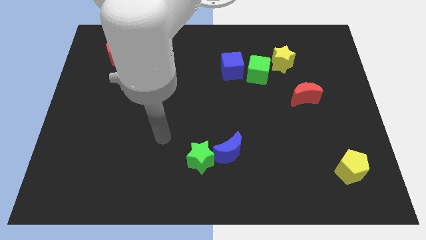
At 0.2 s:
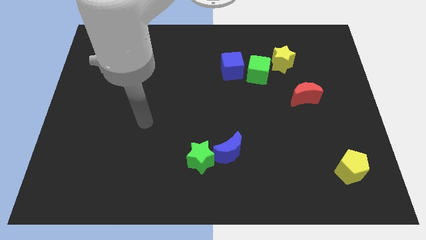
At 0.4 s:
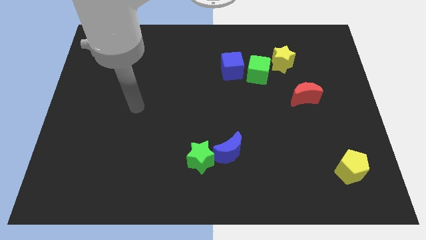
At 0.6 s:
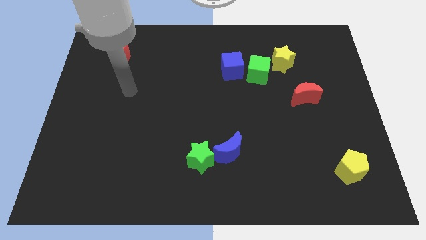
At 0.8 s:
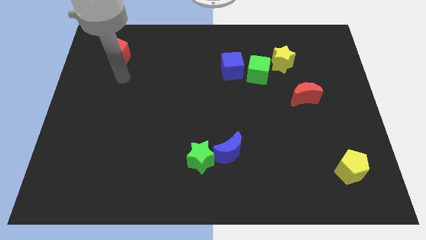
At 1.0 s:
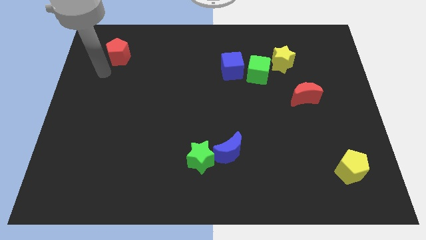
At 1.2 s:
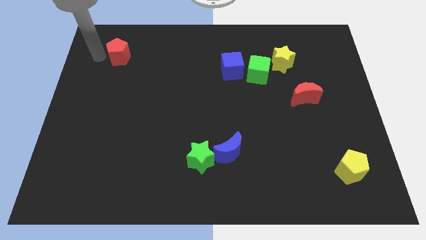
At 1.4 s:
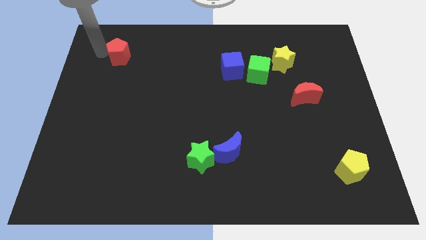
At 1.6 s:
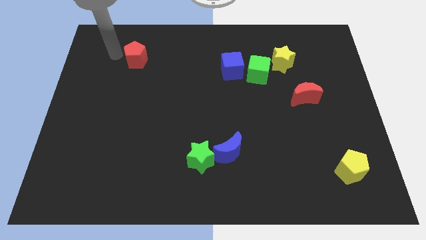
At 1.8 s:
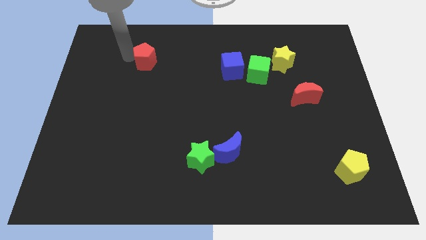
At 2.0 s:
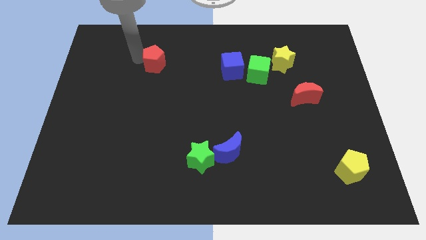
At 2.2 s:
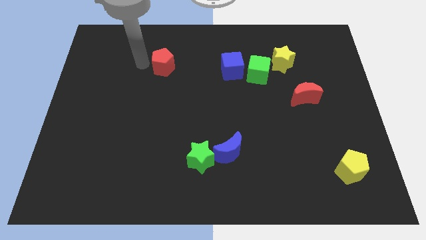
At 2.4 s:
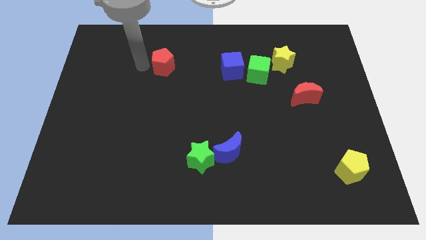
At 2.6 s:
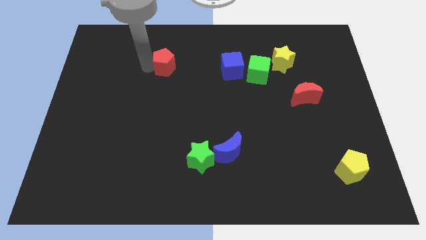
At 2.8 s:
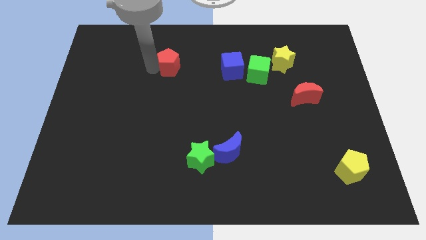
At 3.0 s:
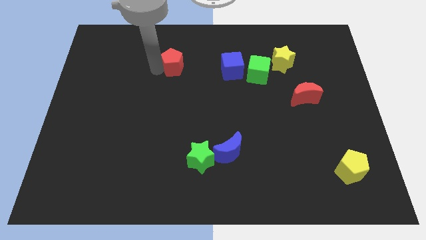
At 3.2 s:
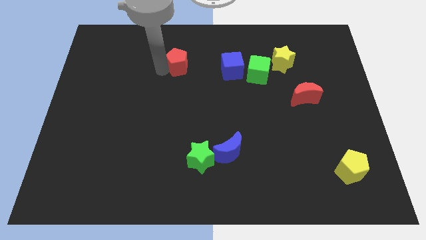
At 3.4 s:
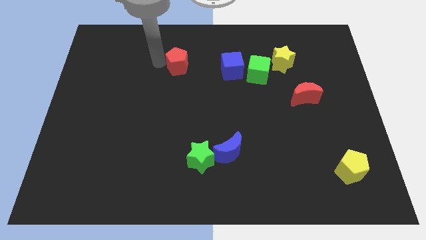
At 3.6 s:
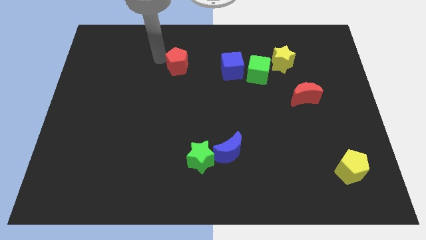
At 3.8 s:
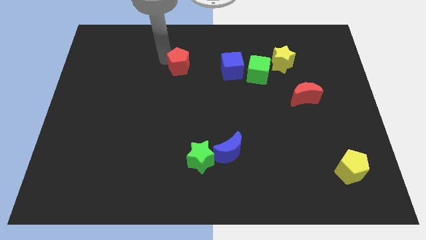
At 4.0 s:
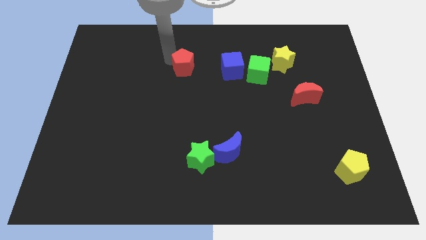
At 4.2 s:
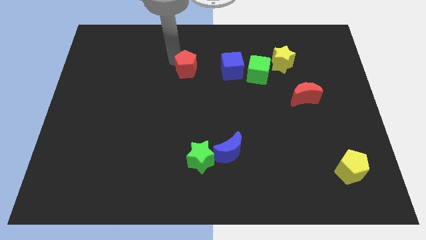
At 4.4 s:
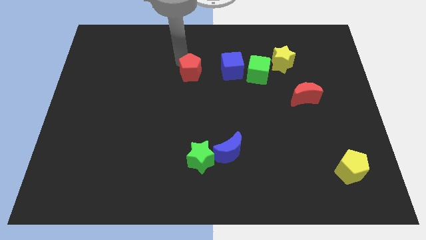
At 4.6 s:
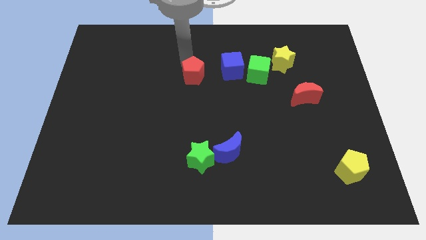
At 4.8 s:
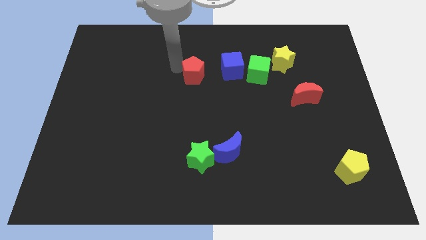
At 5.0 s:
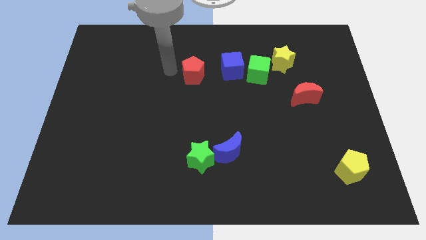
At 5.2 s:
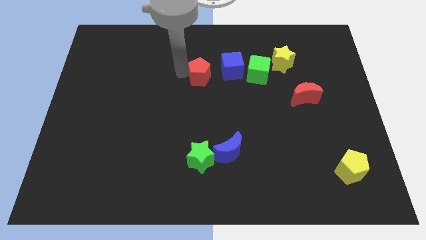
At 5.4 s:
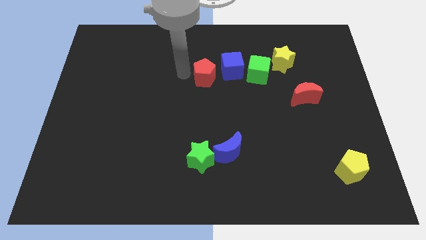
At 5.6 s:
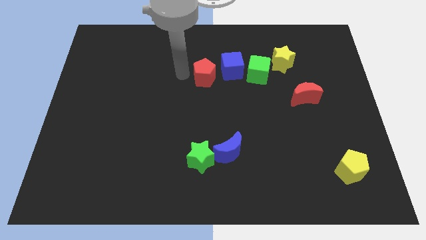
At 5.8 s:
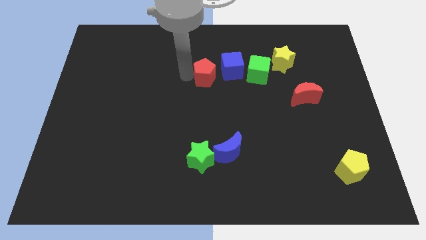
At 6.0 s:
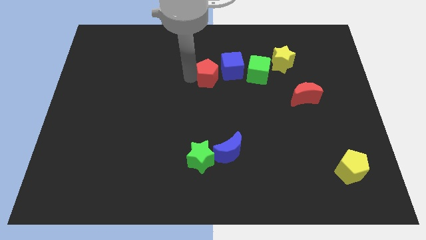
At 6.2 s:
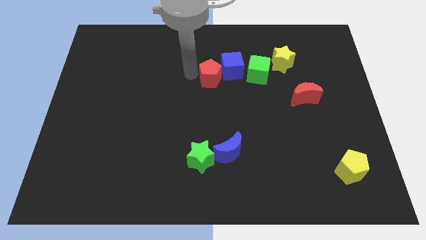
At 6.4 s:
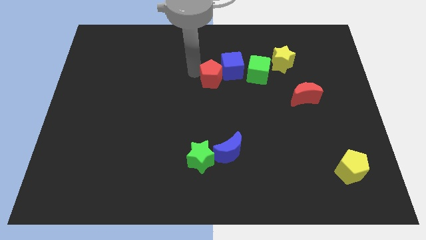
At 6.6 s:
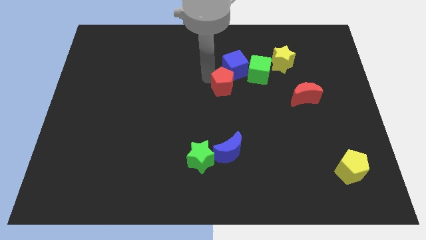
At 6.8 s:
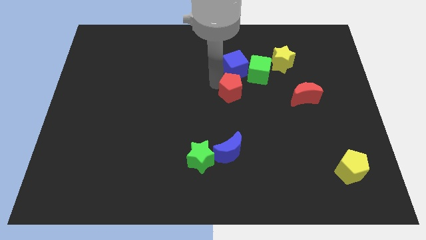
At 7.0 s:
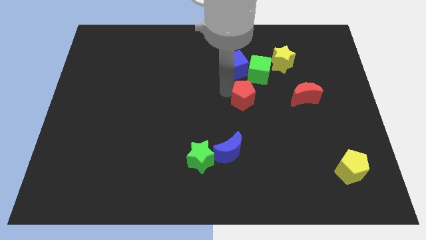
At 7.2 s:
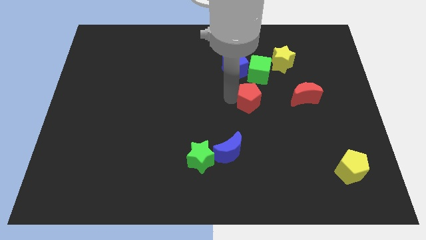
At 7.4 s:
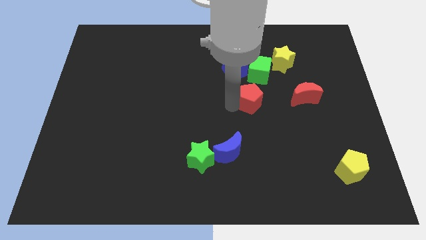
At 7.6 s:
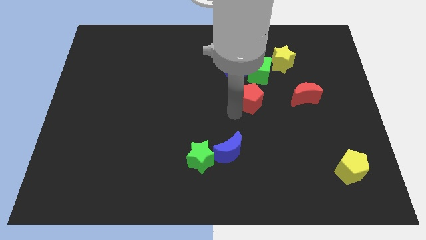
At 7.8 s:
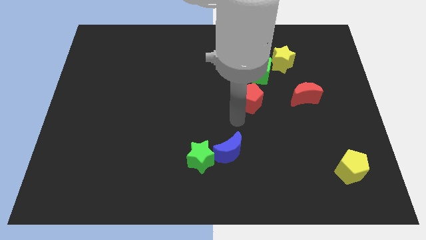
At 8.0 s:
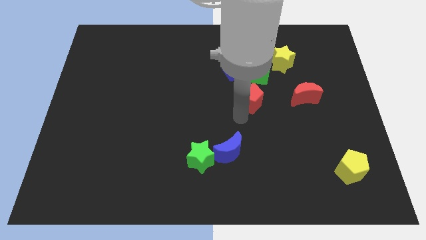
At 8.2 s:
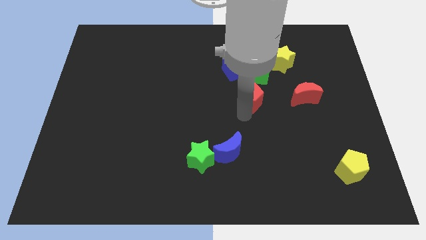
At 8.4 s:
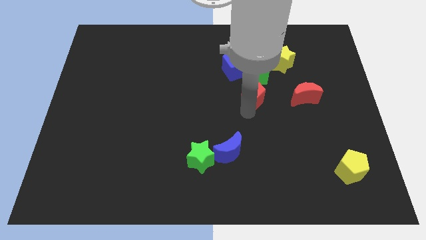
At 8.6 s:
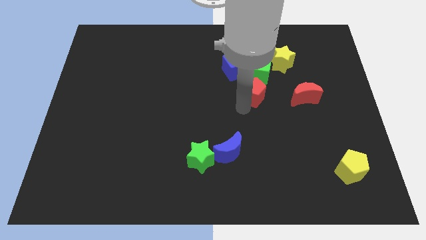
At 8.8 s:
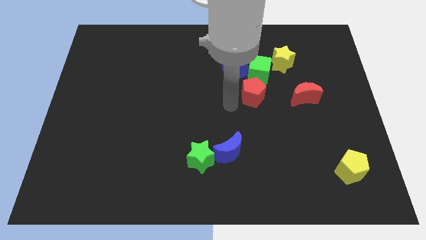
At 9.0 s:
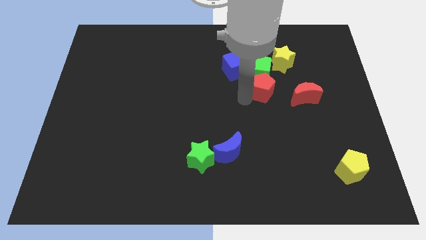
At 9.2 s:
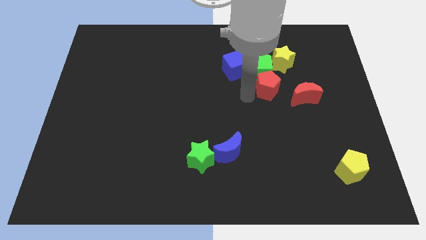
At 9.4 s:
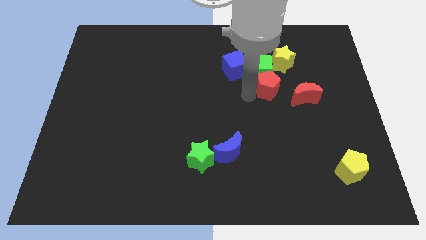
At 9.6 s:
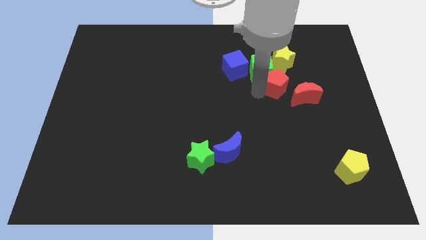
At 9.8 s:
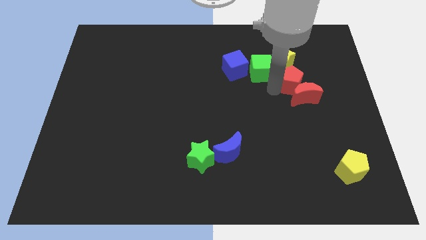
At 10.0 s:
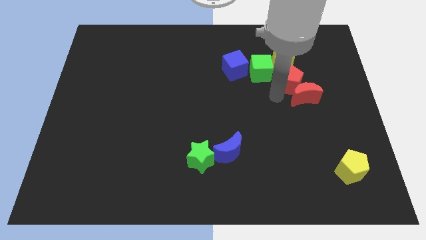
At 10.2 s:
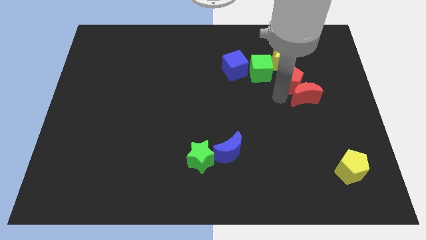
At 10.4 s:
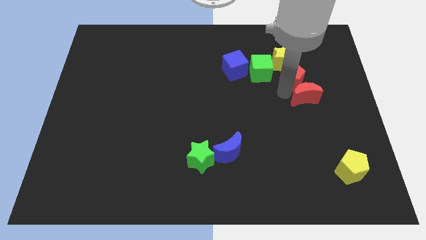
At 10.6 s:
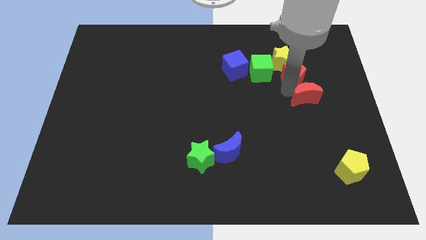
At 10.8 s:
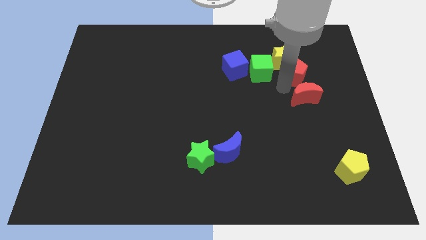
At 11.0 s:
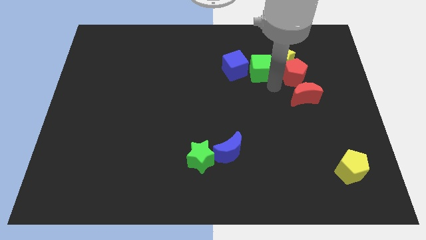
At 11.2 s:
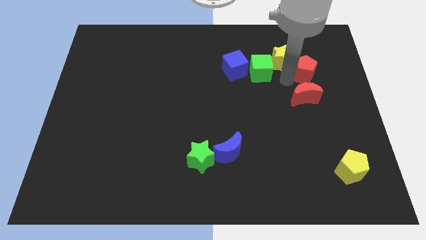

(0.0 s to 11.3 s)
slide the red pentagon to the right side of the yellow star

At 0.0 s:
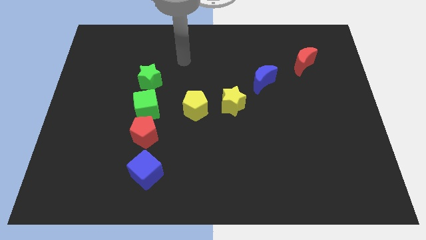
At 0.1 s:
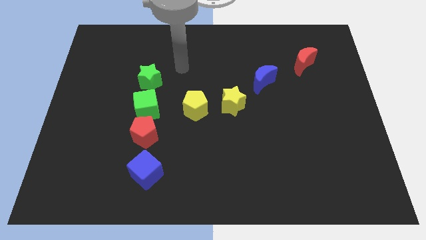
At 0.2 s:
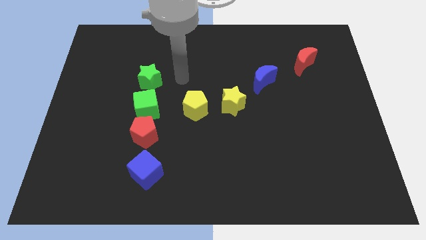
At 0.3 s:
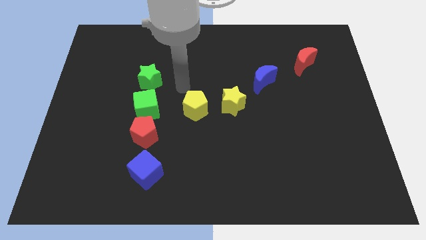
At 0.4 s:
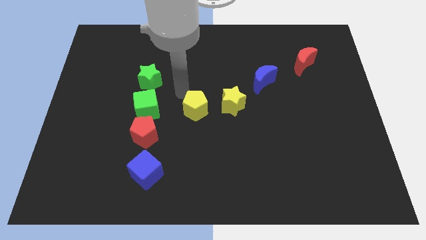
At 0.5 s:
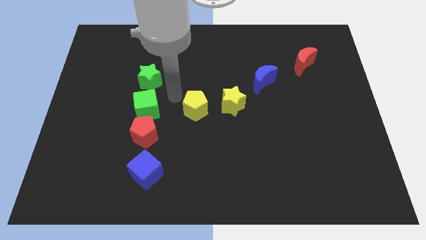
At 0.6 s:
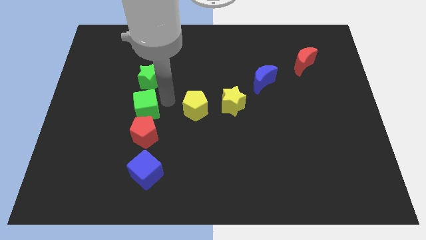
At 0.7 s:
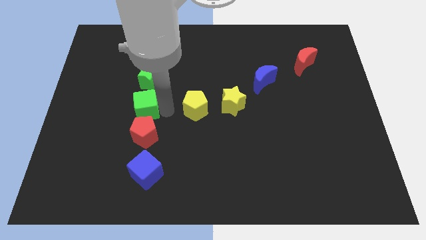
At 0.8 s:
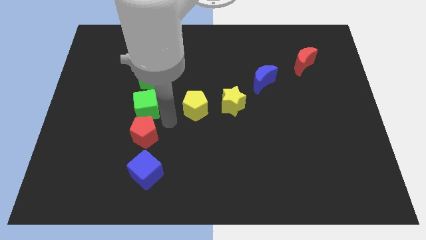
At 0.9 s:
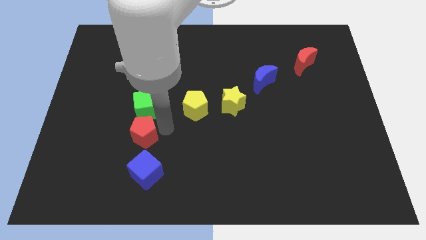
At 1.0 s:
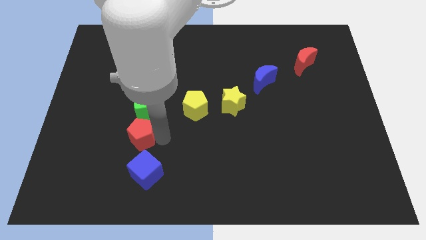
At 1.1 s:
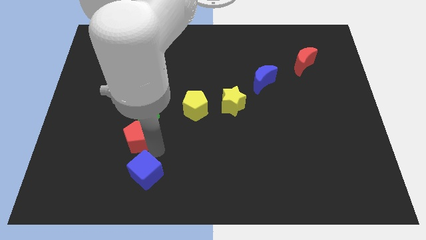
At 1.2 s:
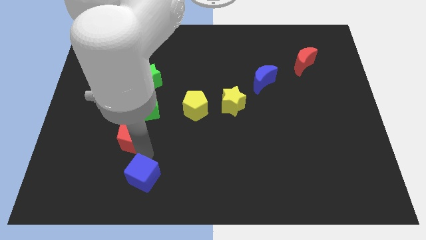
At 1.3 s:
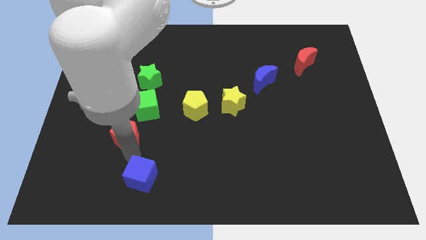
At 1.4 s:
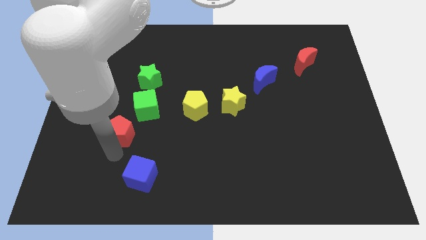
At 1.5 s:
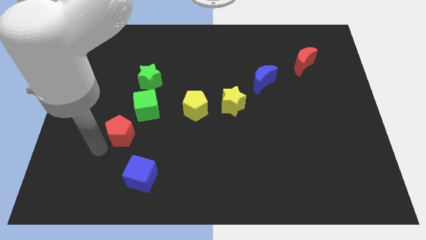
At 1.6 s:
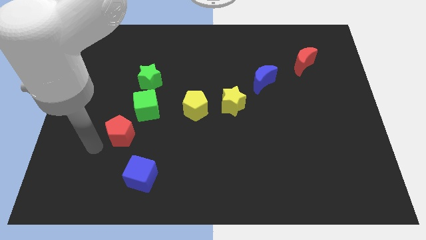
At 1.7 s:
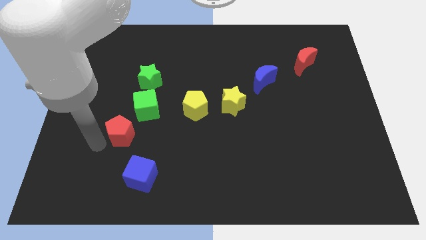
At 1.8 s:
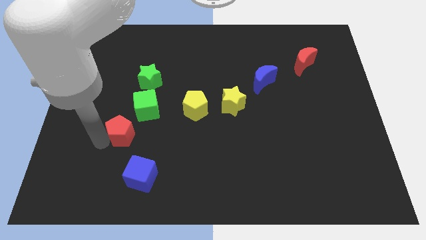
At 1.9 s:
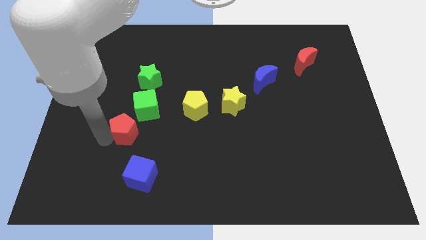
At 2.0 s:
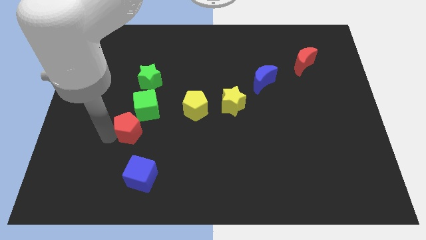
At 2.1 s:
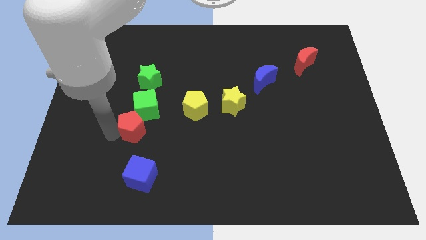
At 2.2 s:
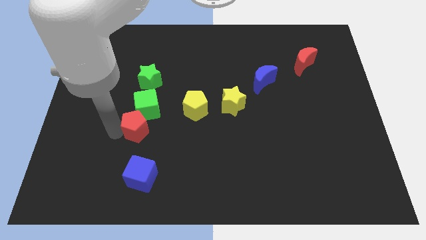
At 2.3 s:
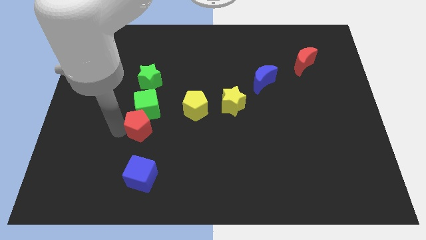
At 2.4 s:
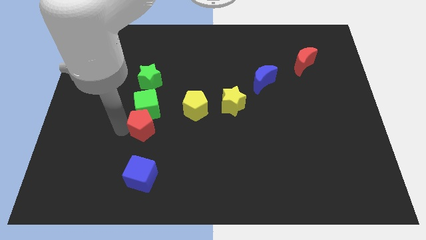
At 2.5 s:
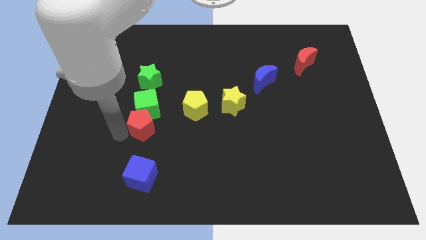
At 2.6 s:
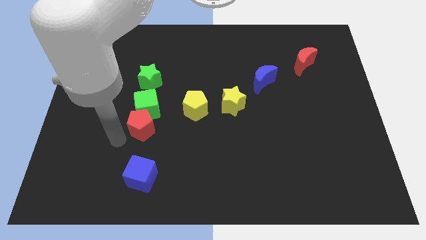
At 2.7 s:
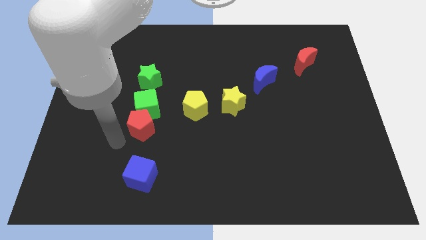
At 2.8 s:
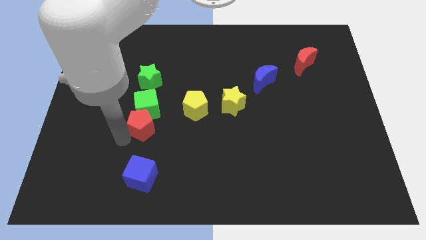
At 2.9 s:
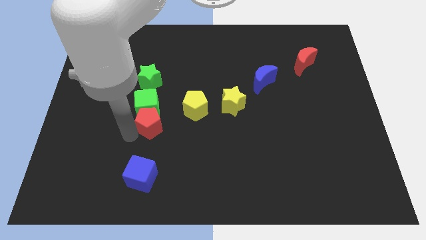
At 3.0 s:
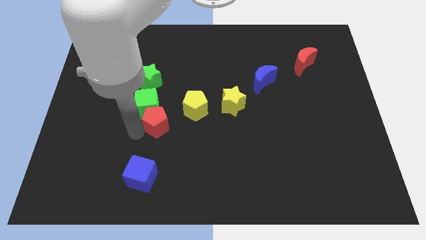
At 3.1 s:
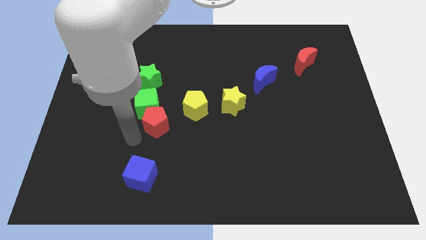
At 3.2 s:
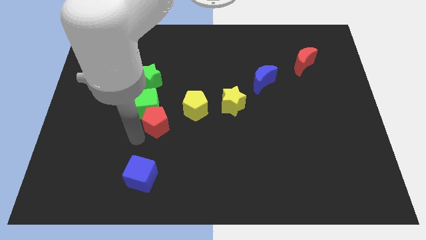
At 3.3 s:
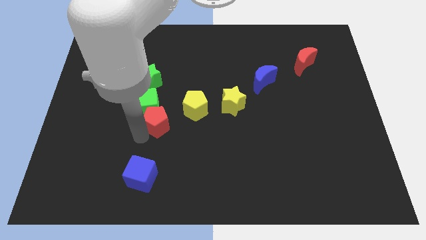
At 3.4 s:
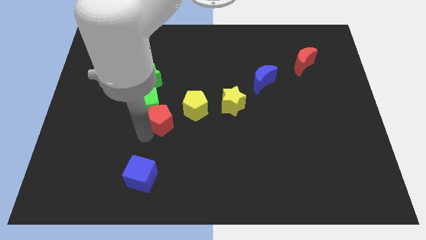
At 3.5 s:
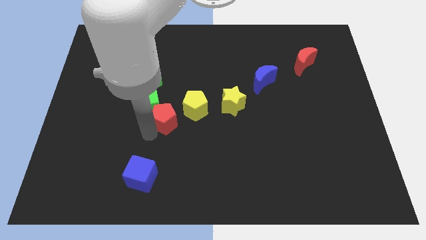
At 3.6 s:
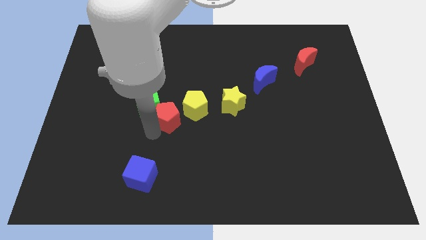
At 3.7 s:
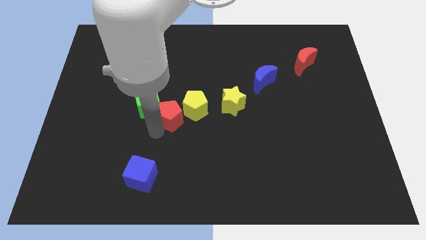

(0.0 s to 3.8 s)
slide the red pentagon to the left of the yellow star
